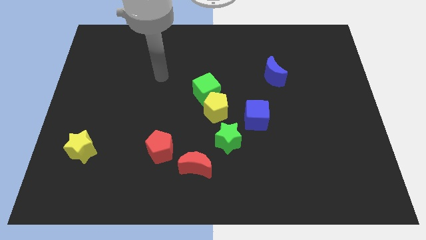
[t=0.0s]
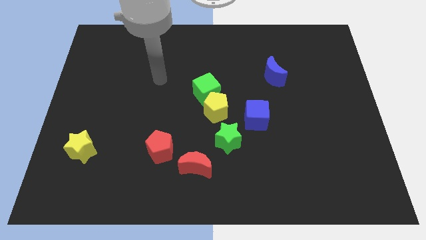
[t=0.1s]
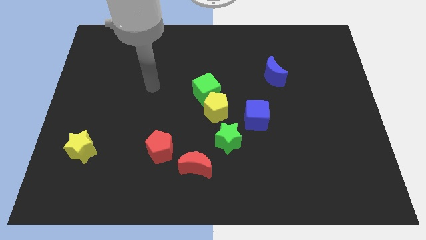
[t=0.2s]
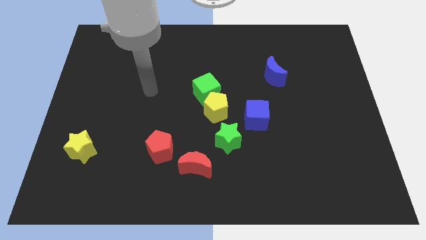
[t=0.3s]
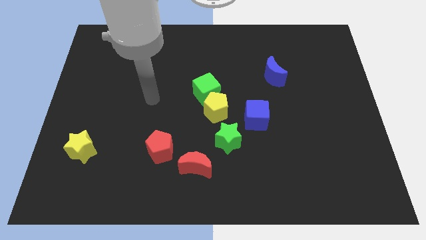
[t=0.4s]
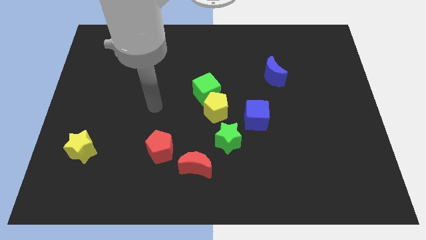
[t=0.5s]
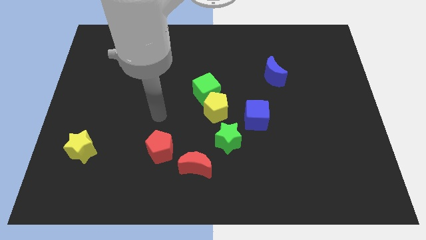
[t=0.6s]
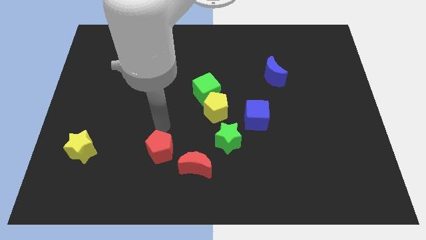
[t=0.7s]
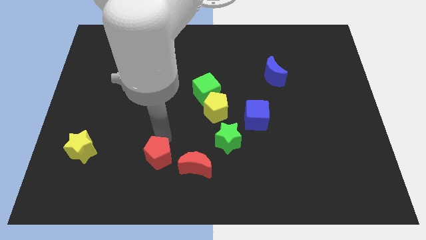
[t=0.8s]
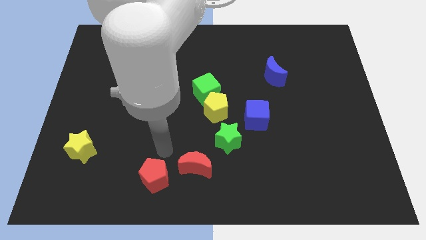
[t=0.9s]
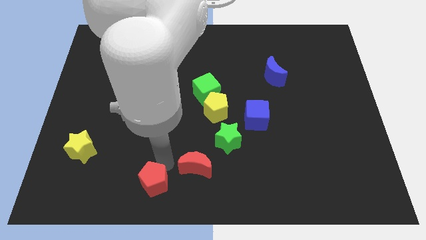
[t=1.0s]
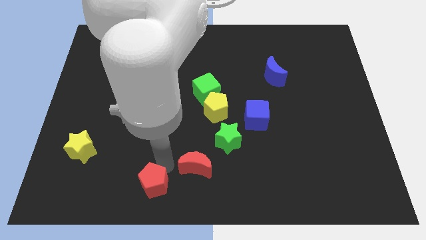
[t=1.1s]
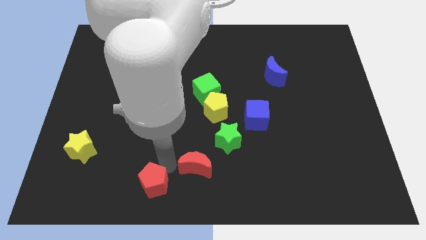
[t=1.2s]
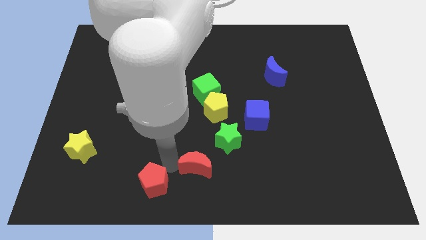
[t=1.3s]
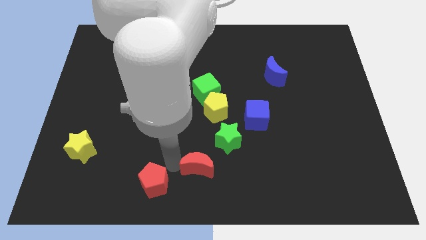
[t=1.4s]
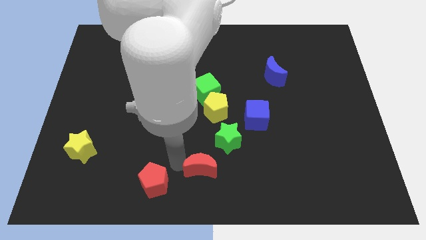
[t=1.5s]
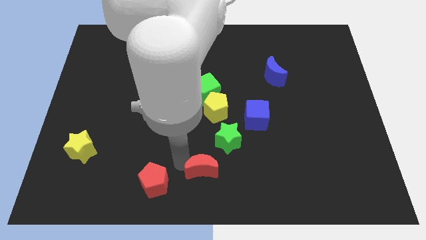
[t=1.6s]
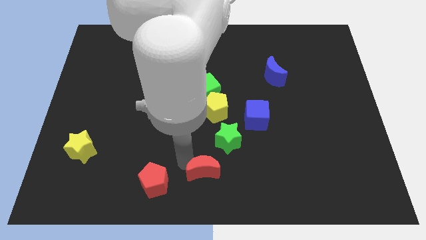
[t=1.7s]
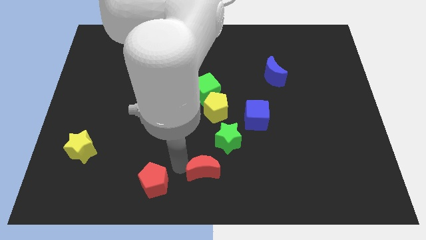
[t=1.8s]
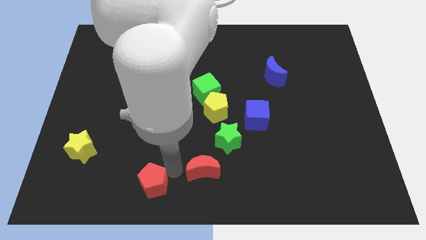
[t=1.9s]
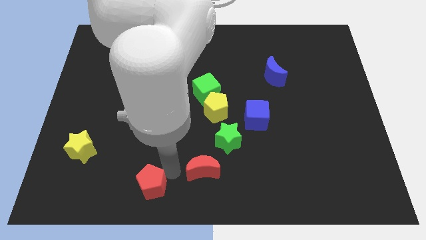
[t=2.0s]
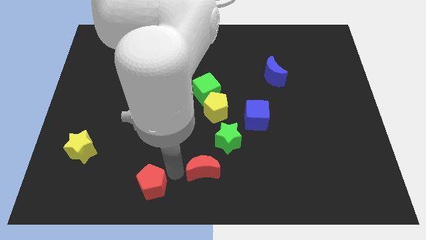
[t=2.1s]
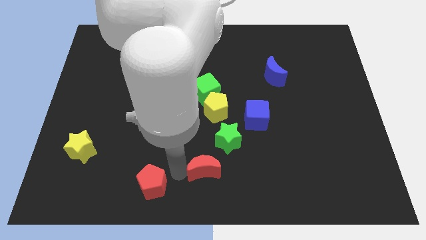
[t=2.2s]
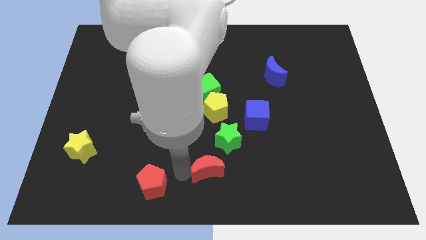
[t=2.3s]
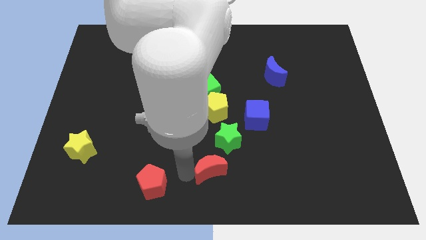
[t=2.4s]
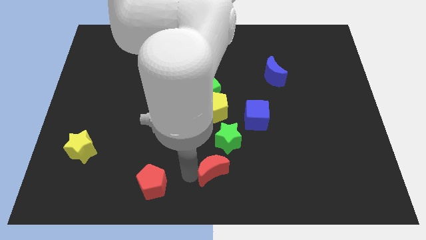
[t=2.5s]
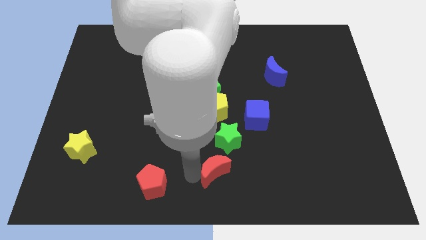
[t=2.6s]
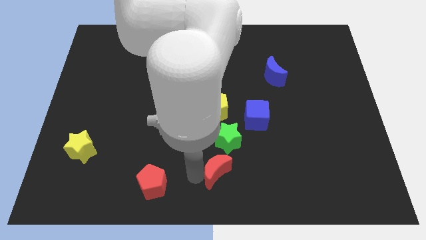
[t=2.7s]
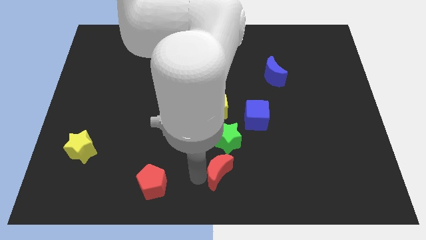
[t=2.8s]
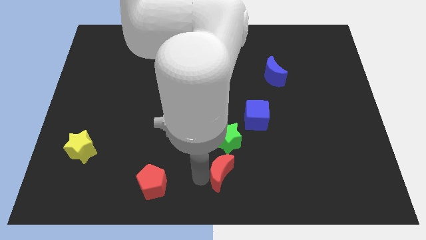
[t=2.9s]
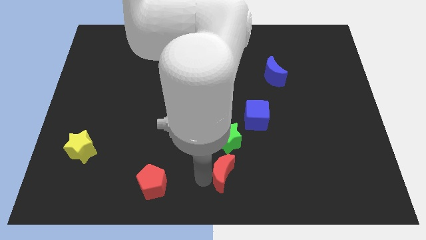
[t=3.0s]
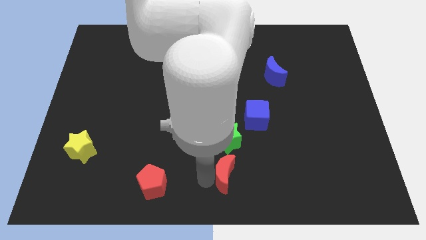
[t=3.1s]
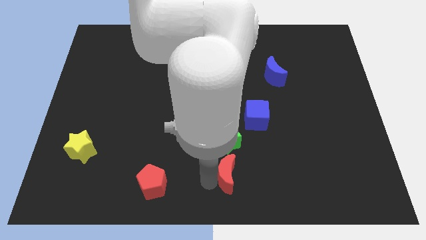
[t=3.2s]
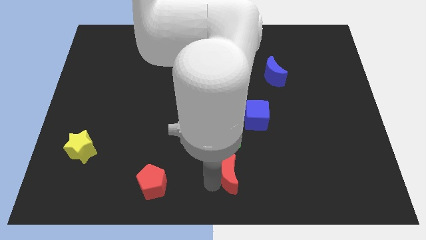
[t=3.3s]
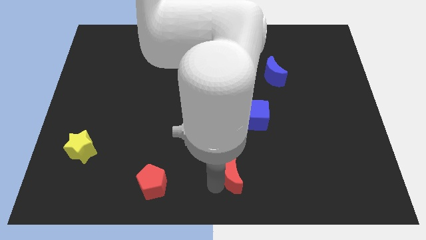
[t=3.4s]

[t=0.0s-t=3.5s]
slightly slide the red moon to the right

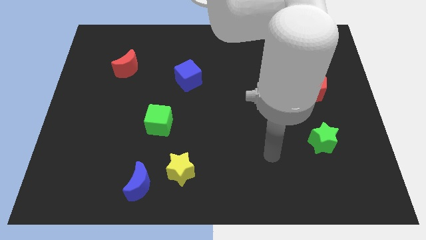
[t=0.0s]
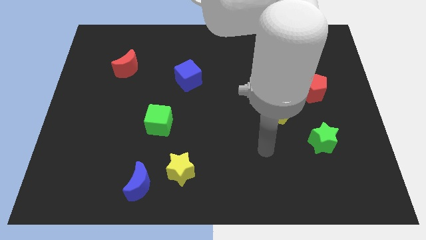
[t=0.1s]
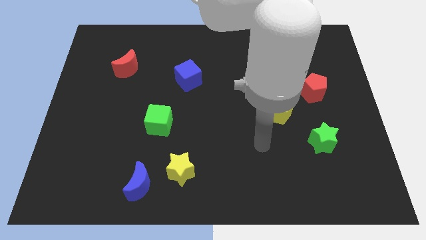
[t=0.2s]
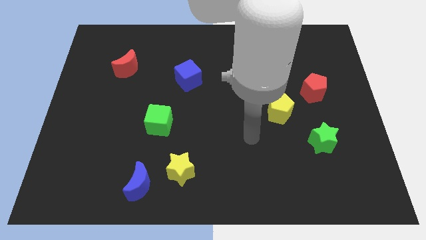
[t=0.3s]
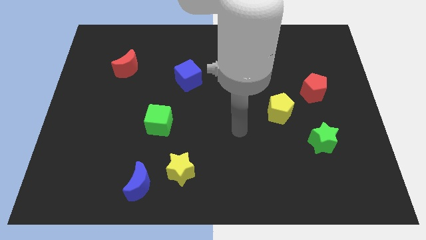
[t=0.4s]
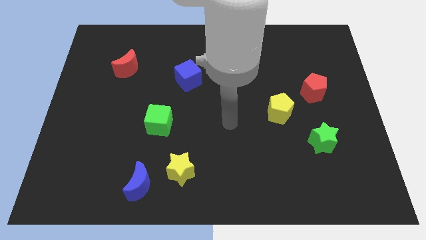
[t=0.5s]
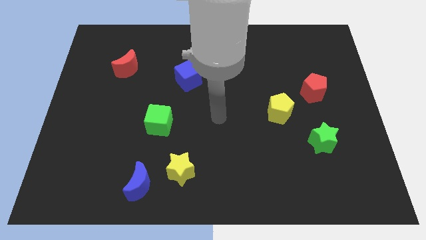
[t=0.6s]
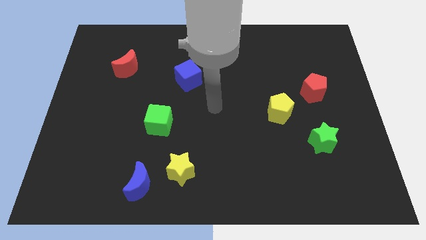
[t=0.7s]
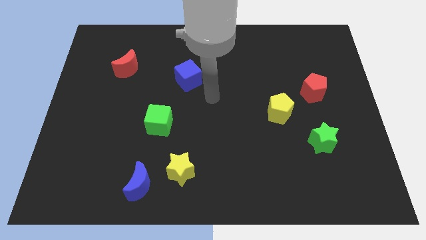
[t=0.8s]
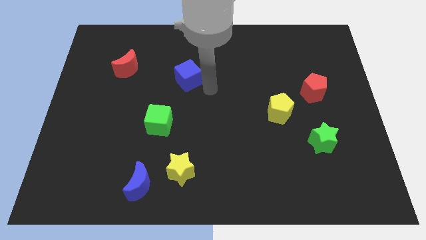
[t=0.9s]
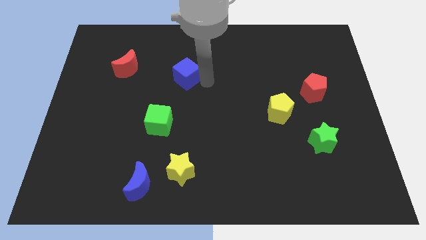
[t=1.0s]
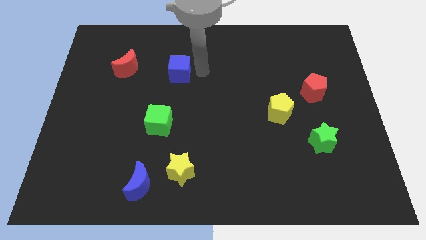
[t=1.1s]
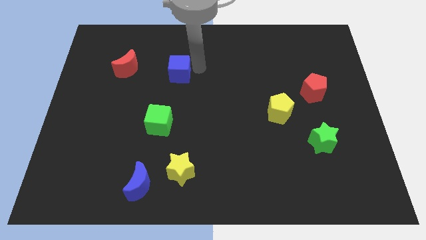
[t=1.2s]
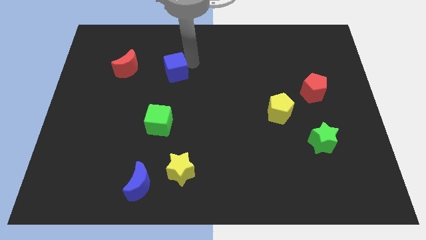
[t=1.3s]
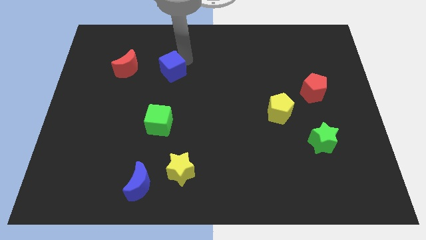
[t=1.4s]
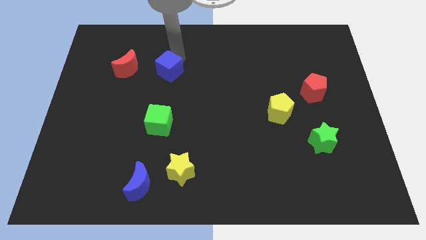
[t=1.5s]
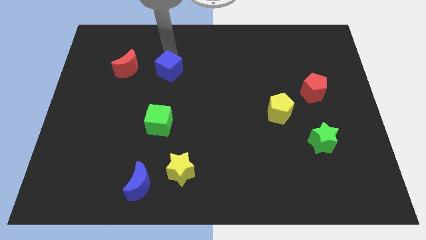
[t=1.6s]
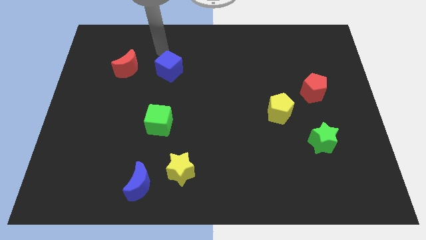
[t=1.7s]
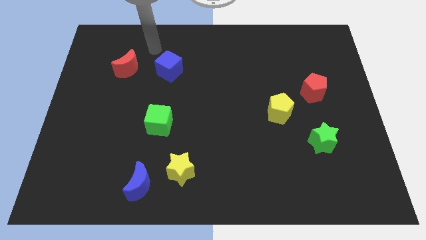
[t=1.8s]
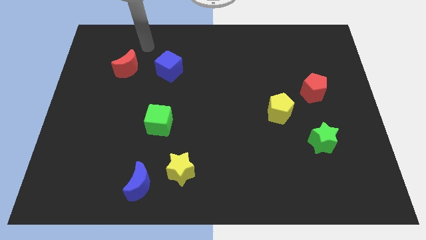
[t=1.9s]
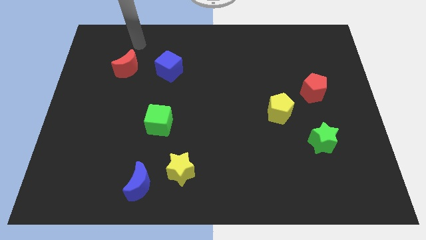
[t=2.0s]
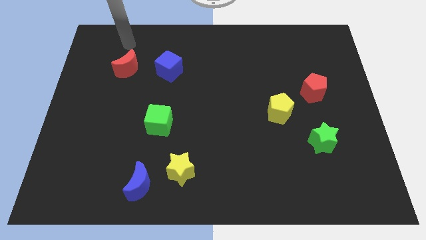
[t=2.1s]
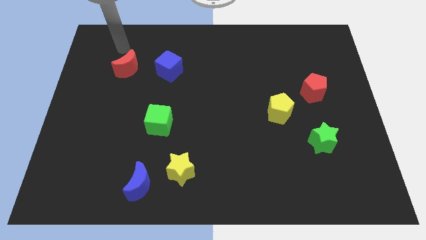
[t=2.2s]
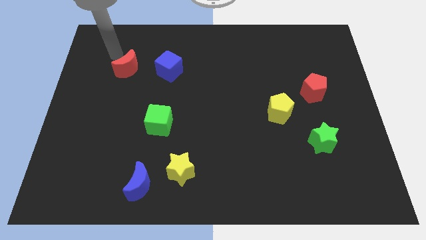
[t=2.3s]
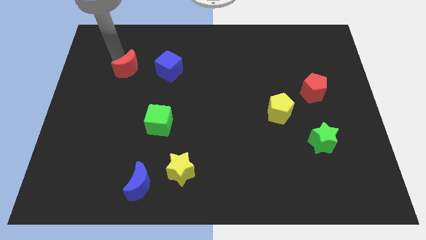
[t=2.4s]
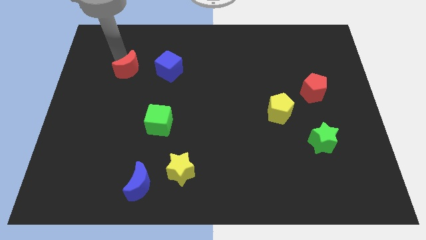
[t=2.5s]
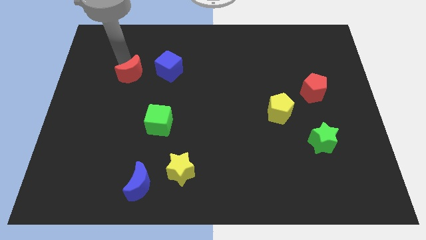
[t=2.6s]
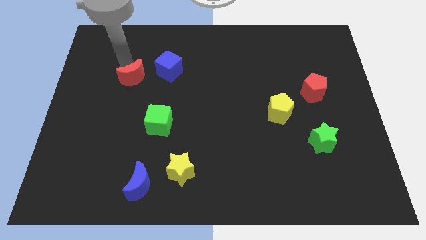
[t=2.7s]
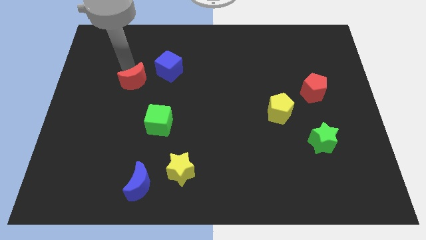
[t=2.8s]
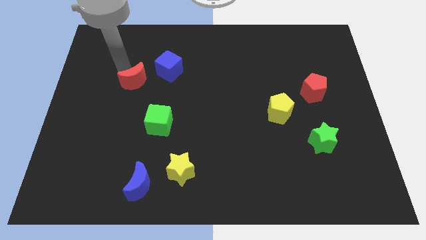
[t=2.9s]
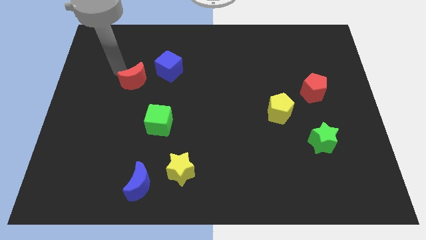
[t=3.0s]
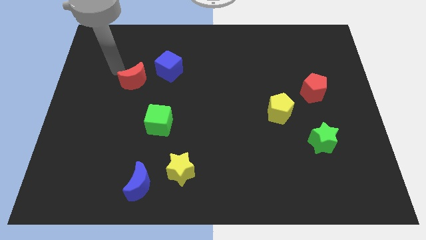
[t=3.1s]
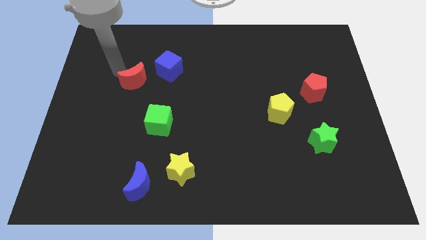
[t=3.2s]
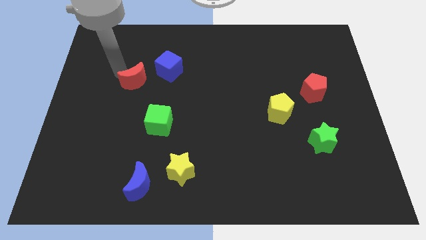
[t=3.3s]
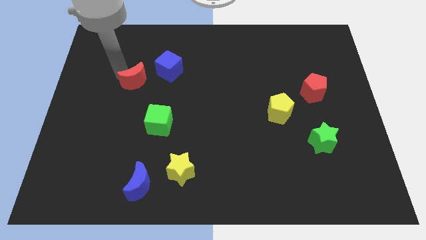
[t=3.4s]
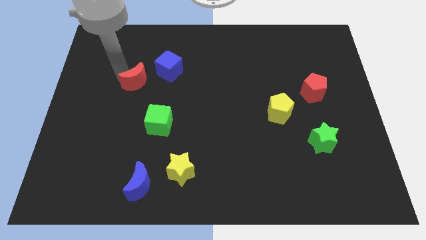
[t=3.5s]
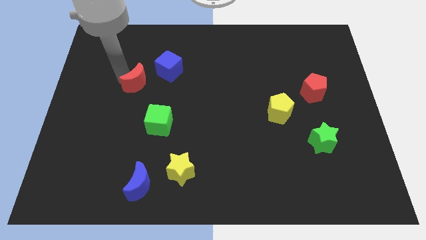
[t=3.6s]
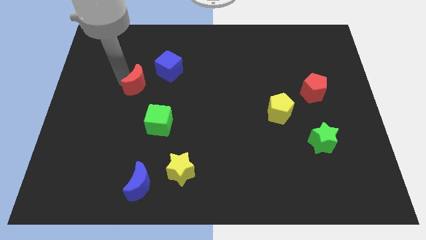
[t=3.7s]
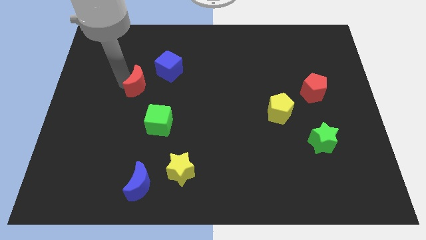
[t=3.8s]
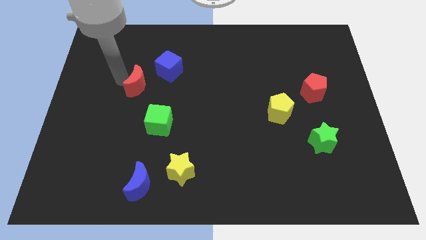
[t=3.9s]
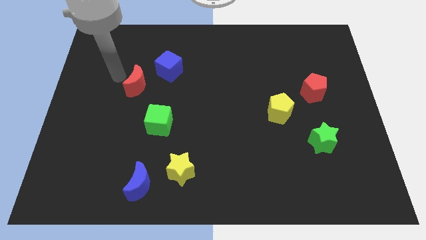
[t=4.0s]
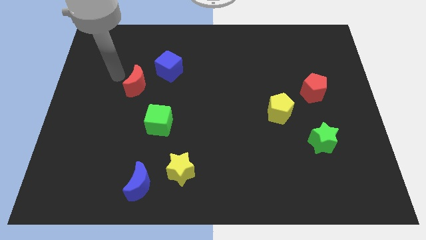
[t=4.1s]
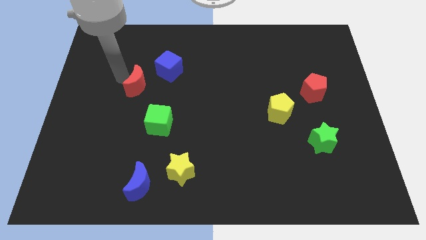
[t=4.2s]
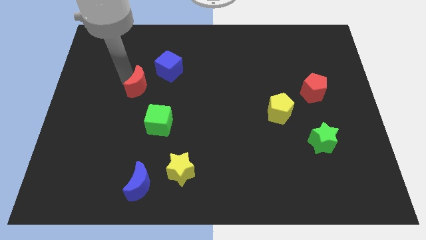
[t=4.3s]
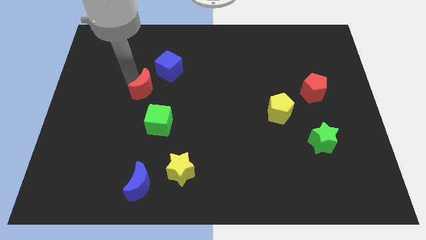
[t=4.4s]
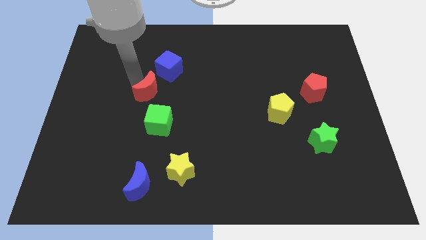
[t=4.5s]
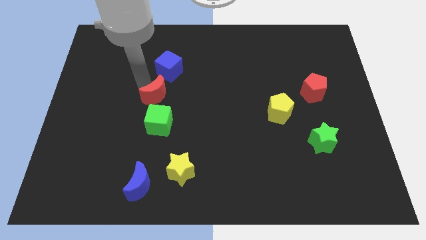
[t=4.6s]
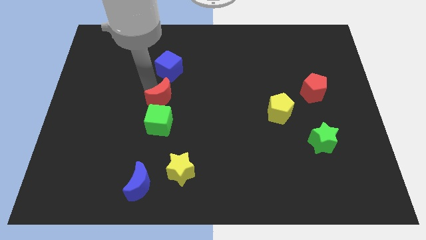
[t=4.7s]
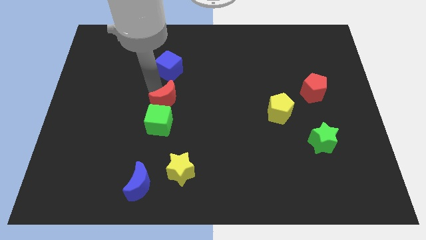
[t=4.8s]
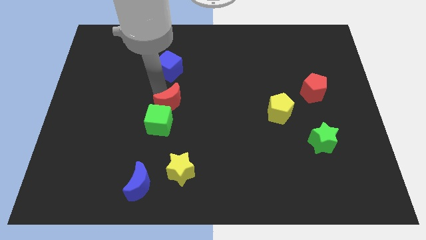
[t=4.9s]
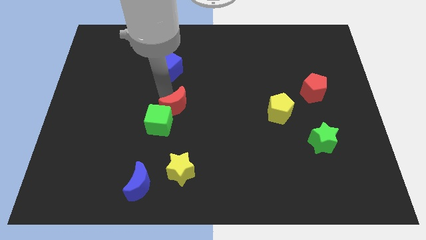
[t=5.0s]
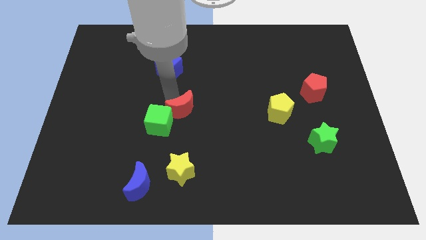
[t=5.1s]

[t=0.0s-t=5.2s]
slide the red moon downwards and then right
